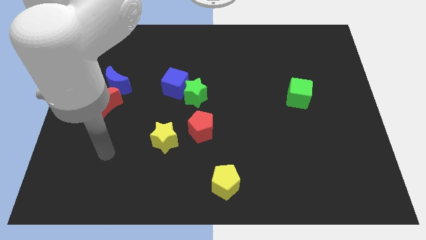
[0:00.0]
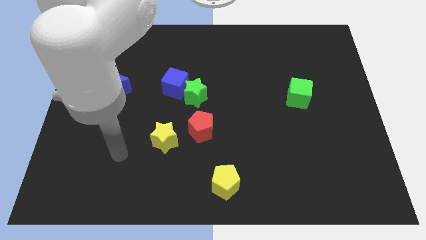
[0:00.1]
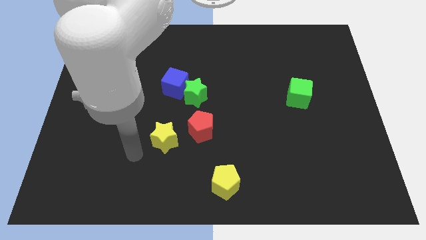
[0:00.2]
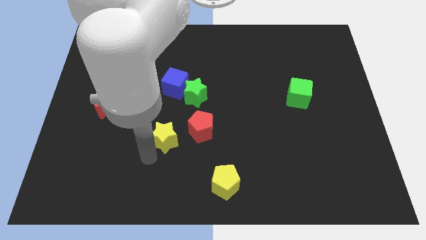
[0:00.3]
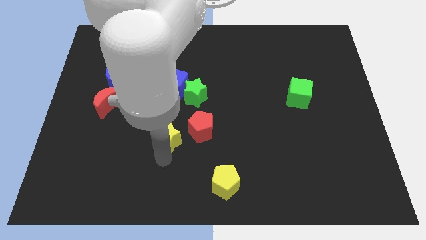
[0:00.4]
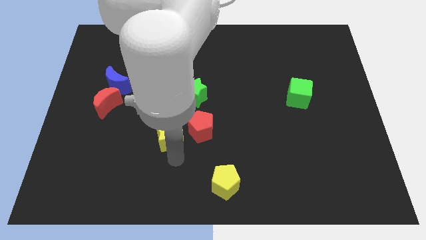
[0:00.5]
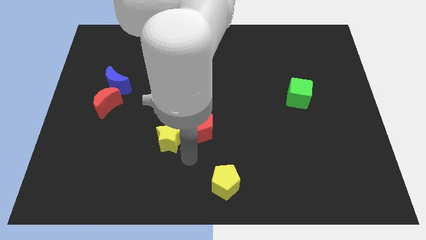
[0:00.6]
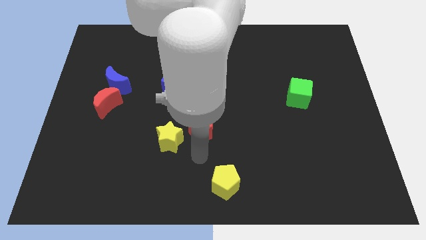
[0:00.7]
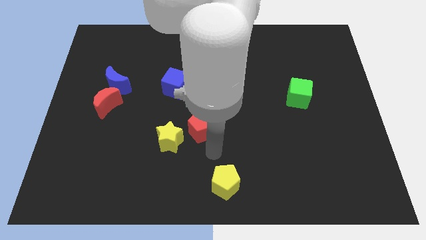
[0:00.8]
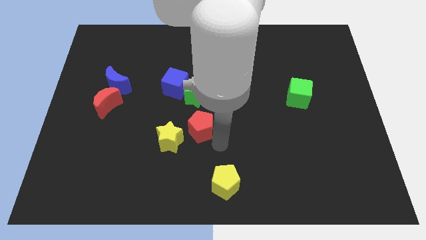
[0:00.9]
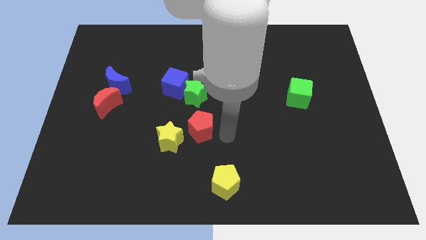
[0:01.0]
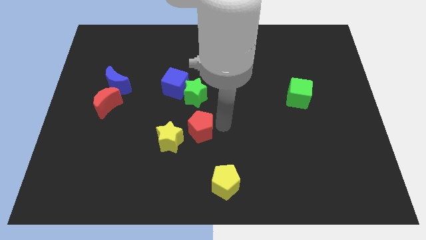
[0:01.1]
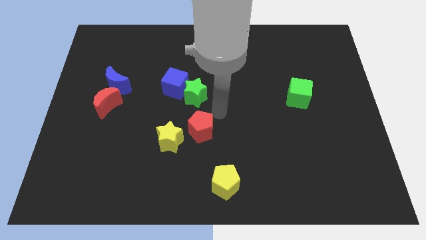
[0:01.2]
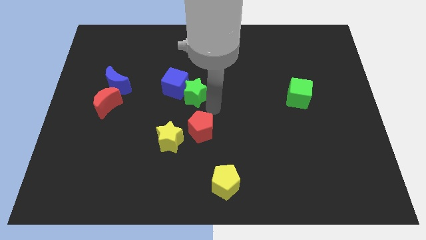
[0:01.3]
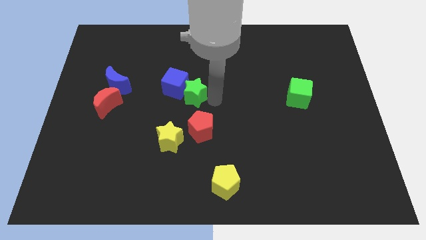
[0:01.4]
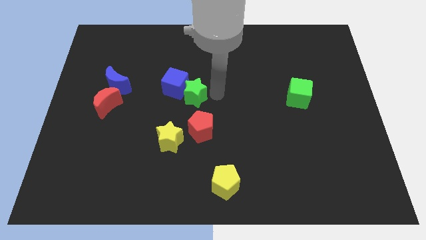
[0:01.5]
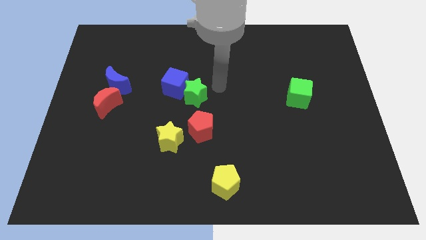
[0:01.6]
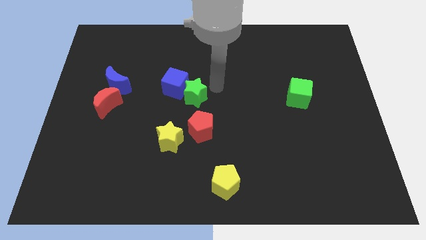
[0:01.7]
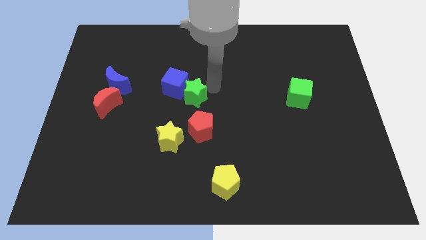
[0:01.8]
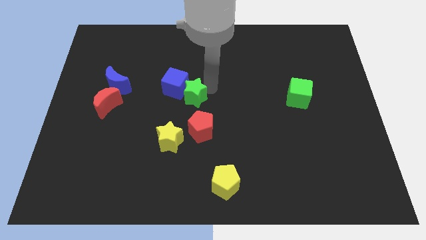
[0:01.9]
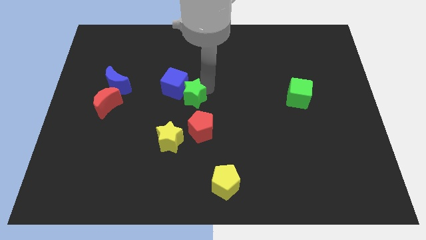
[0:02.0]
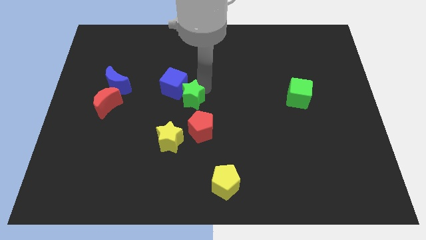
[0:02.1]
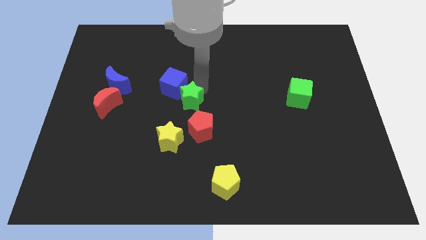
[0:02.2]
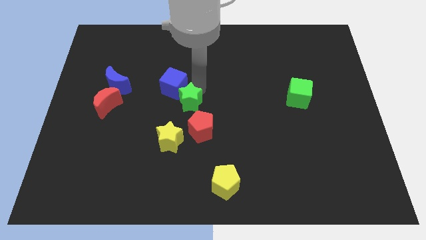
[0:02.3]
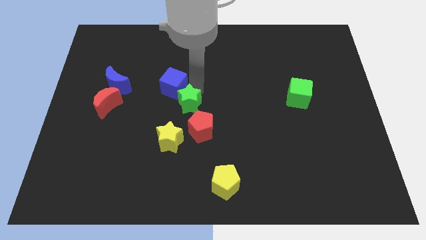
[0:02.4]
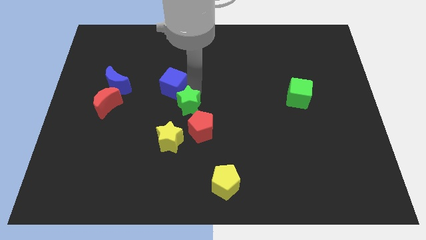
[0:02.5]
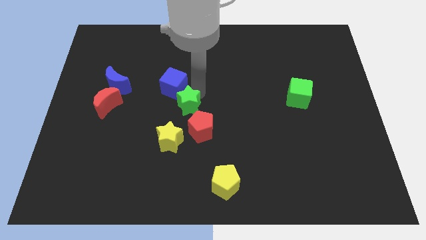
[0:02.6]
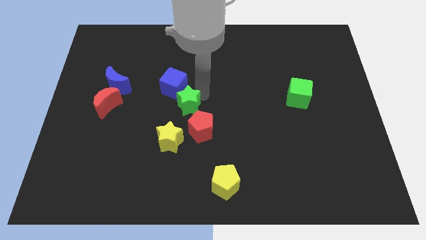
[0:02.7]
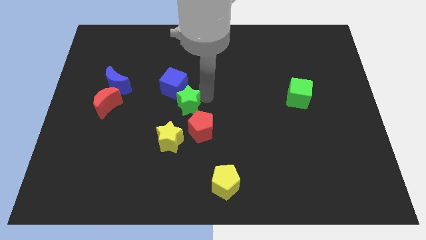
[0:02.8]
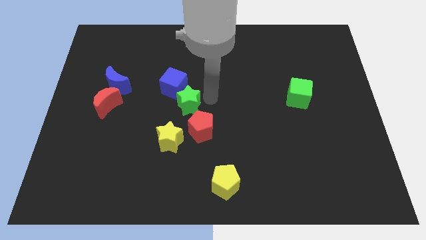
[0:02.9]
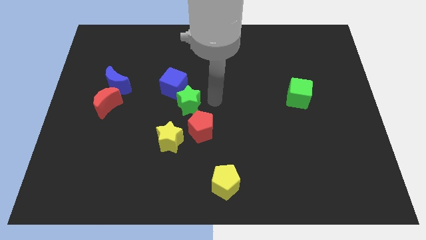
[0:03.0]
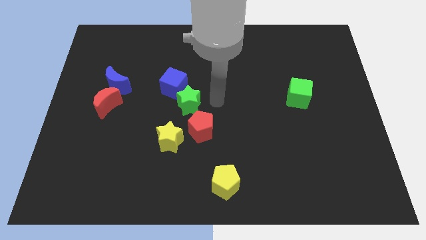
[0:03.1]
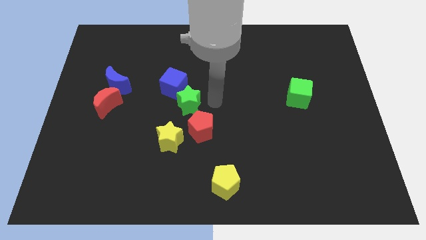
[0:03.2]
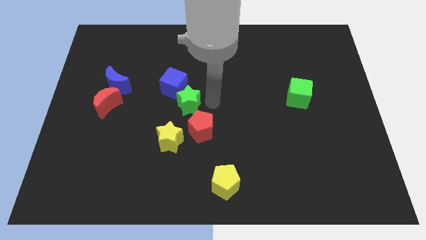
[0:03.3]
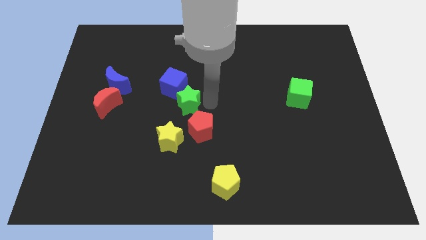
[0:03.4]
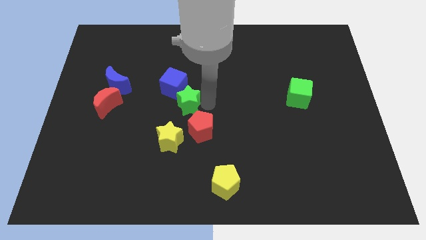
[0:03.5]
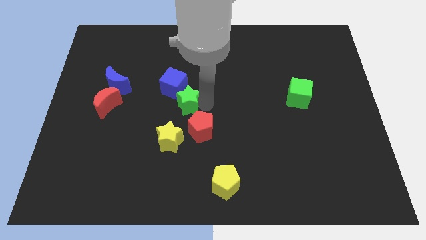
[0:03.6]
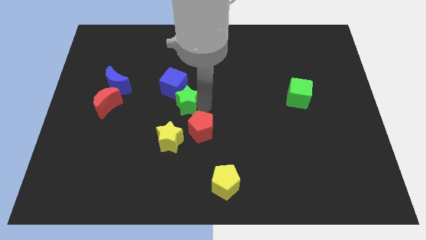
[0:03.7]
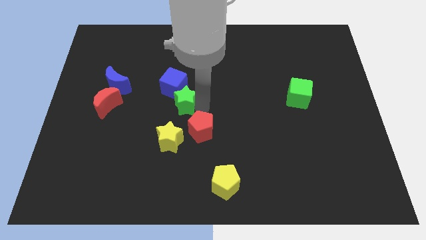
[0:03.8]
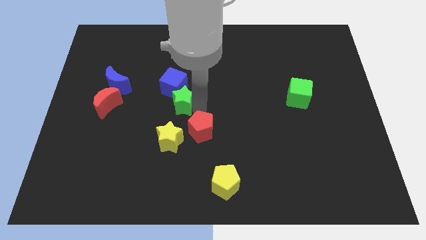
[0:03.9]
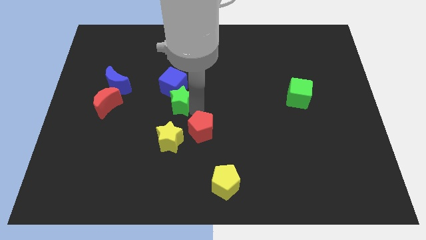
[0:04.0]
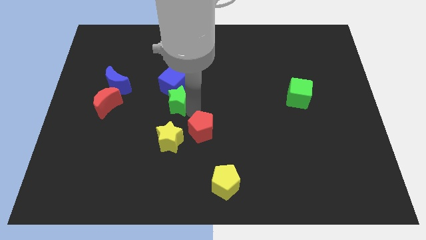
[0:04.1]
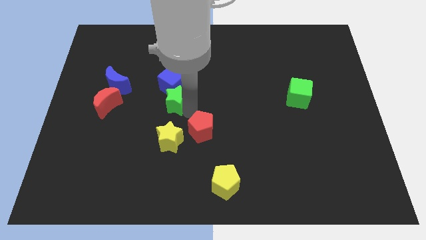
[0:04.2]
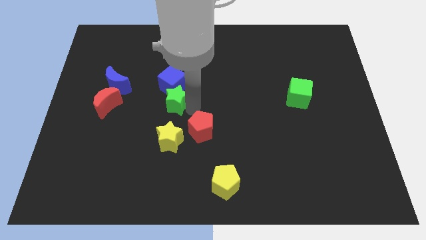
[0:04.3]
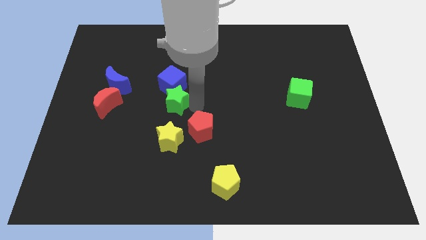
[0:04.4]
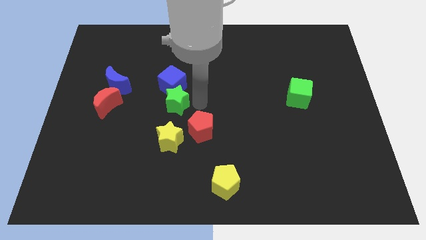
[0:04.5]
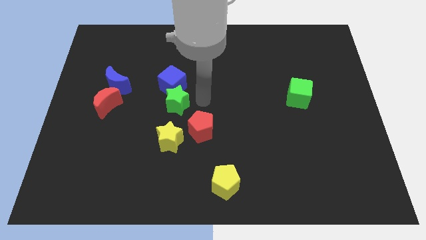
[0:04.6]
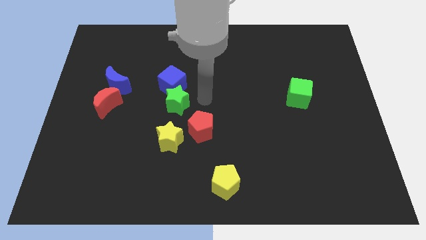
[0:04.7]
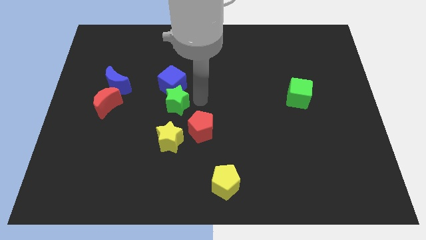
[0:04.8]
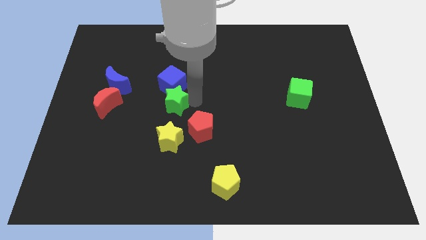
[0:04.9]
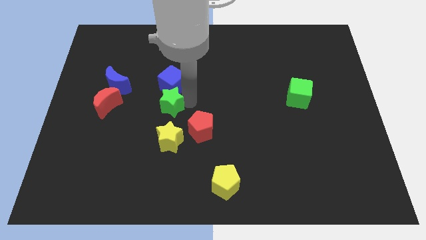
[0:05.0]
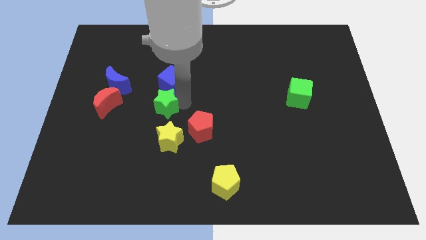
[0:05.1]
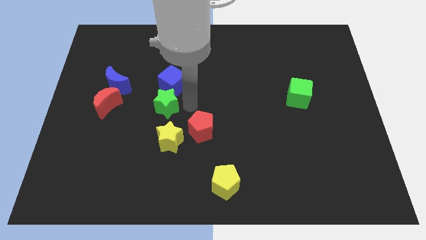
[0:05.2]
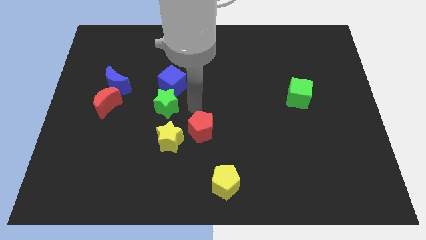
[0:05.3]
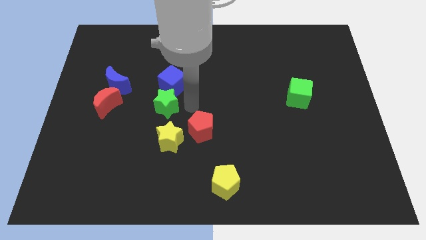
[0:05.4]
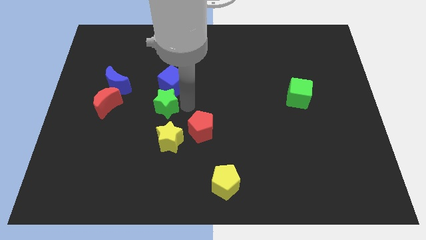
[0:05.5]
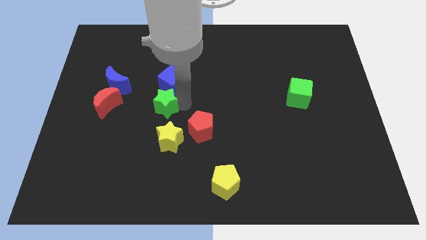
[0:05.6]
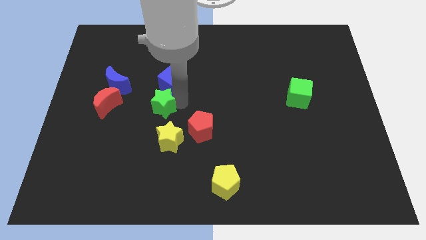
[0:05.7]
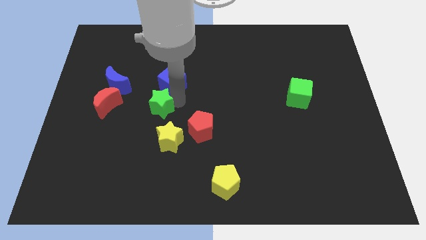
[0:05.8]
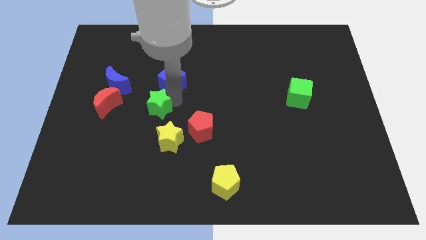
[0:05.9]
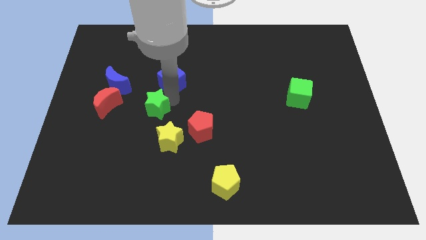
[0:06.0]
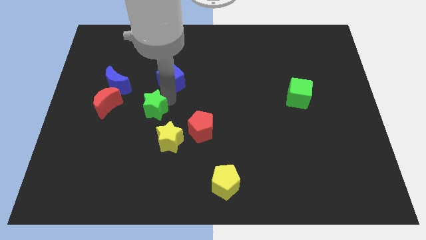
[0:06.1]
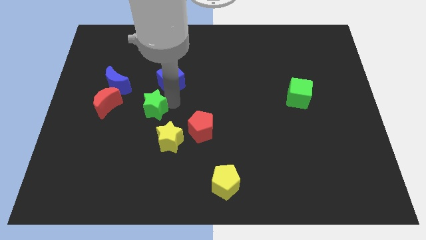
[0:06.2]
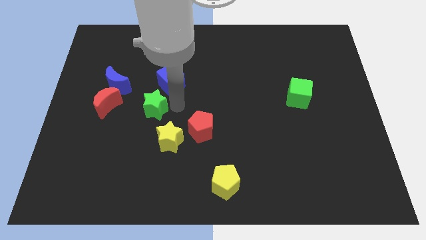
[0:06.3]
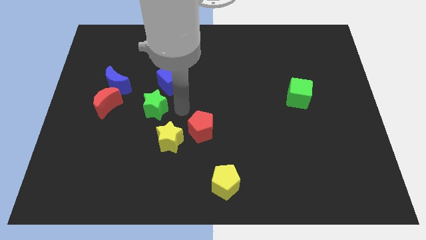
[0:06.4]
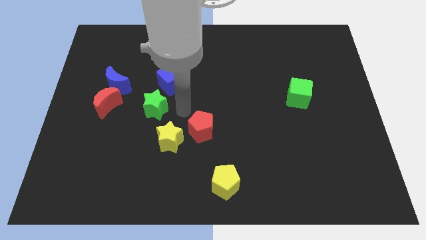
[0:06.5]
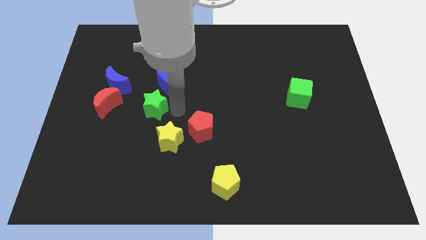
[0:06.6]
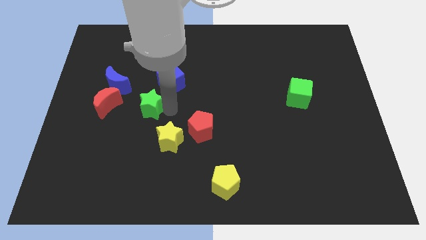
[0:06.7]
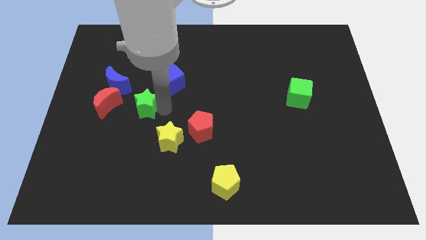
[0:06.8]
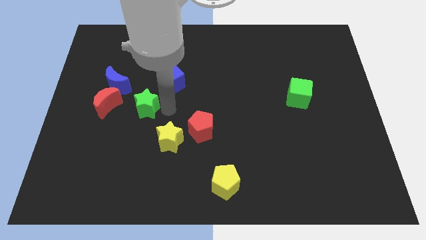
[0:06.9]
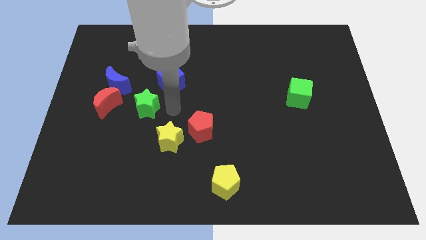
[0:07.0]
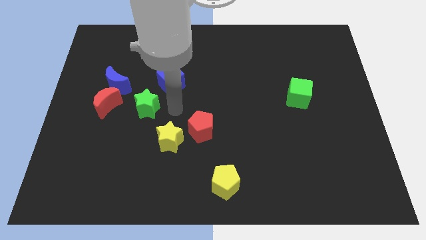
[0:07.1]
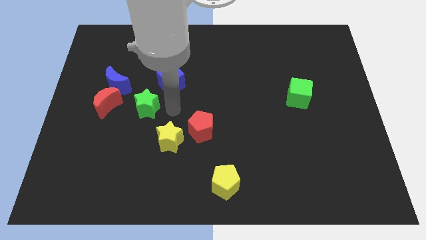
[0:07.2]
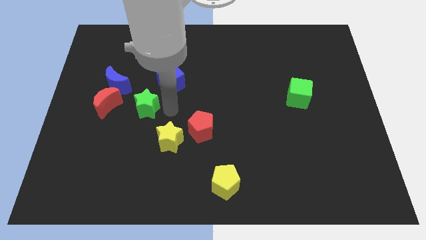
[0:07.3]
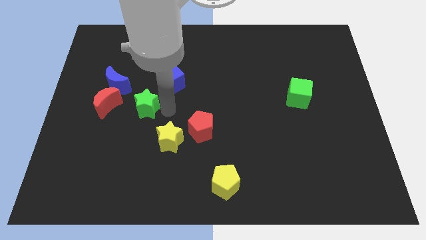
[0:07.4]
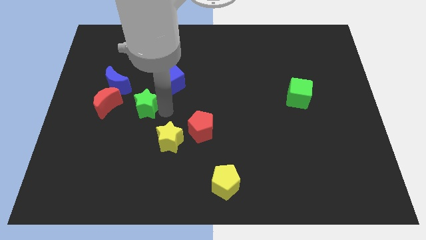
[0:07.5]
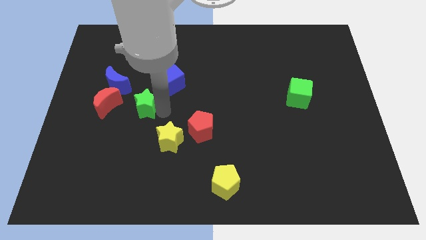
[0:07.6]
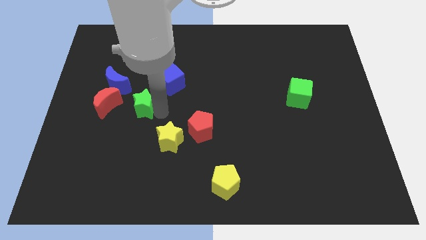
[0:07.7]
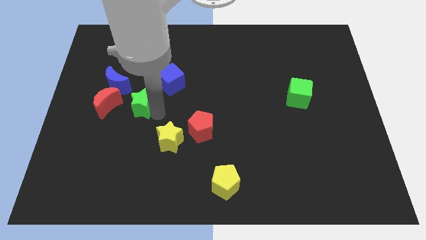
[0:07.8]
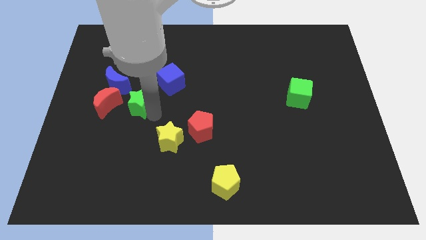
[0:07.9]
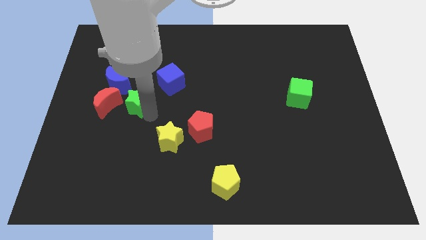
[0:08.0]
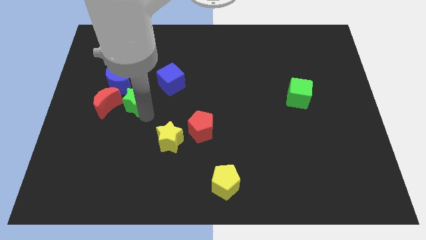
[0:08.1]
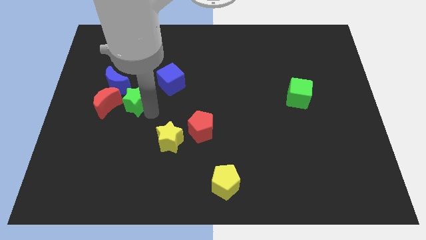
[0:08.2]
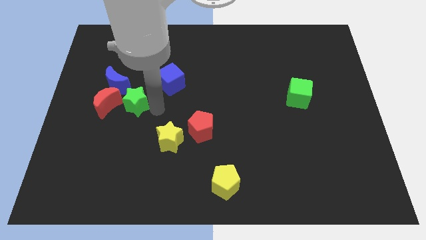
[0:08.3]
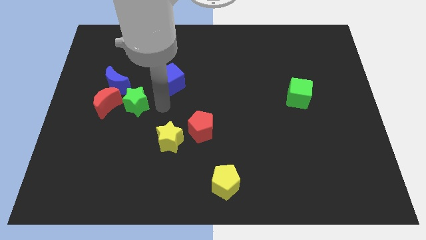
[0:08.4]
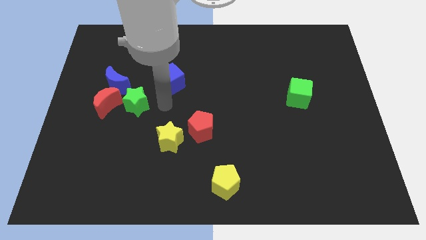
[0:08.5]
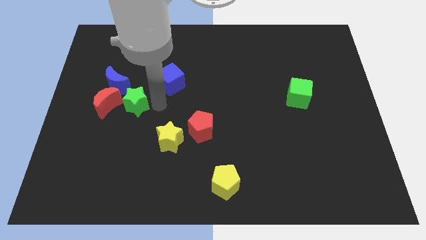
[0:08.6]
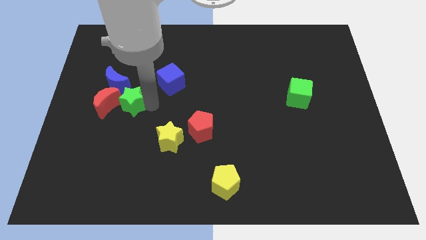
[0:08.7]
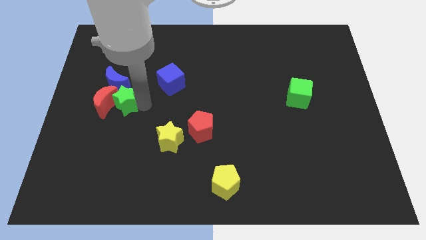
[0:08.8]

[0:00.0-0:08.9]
put the green star to the red moon
